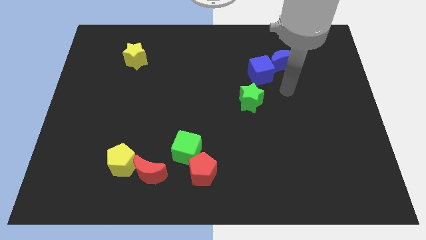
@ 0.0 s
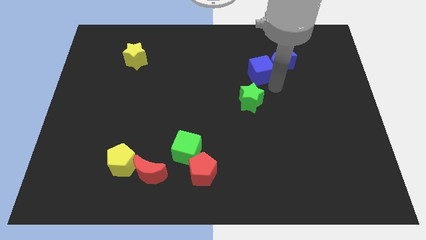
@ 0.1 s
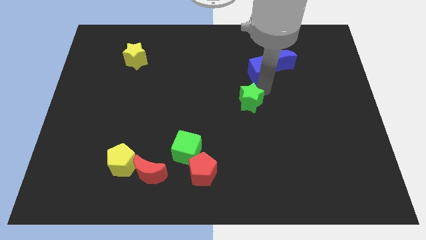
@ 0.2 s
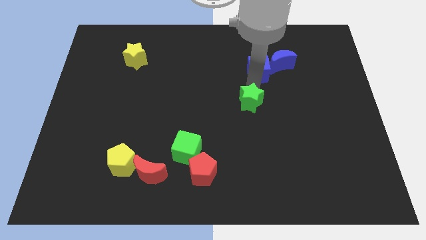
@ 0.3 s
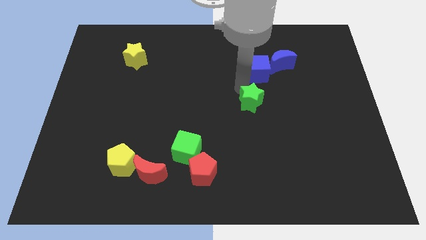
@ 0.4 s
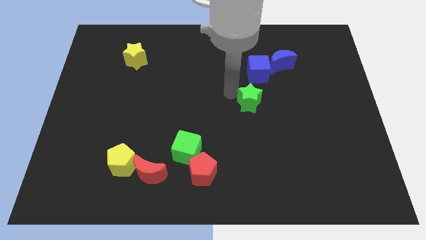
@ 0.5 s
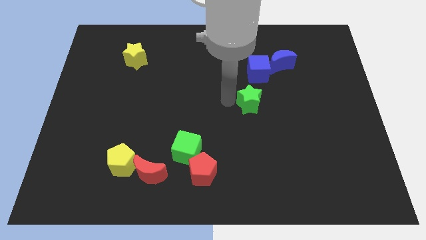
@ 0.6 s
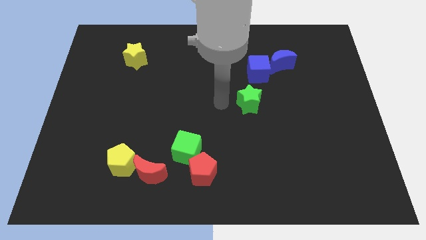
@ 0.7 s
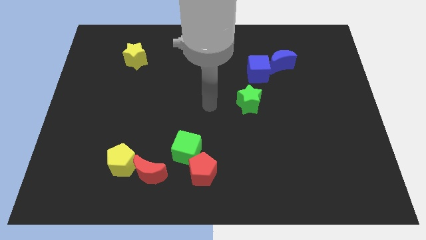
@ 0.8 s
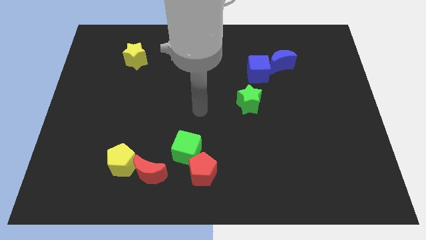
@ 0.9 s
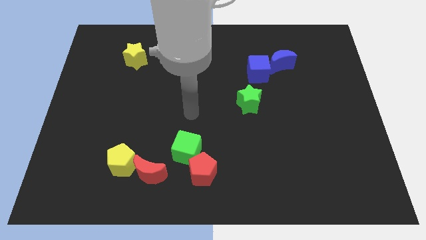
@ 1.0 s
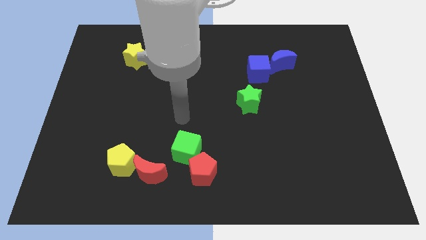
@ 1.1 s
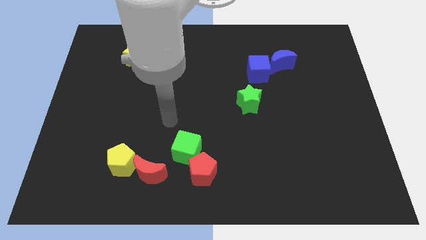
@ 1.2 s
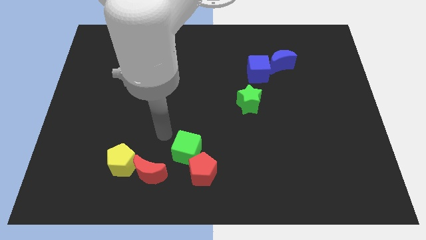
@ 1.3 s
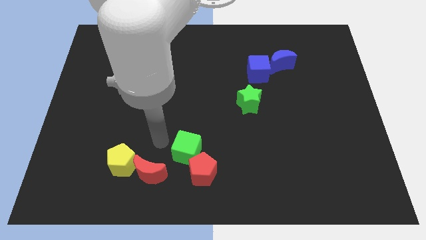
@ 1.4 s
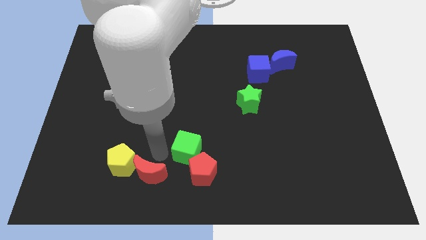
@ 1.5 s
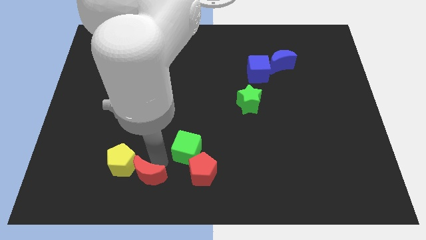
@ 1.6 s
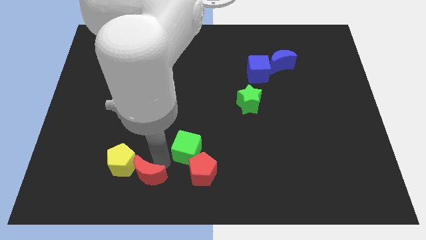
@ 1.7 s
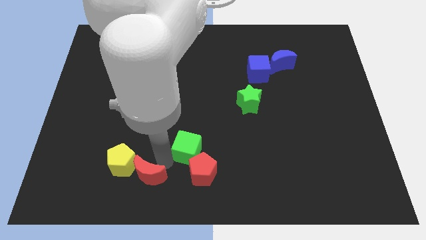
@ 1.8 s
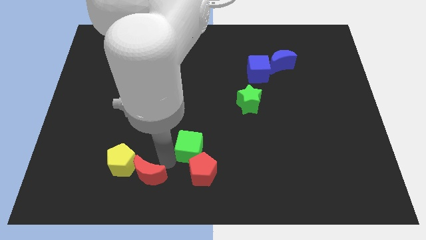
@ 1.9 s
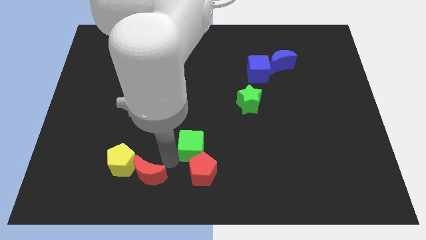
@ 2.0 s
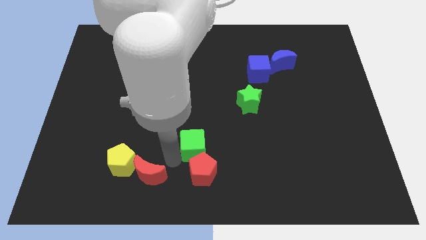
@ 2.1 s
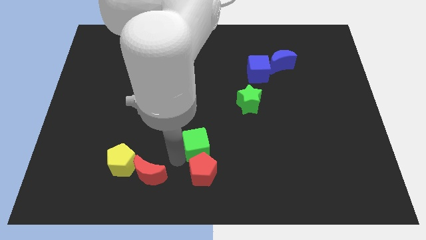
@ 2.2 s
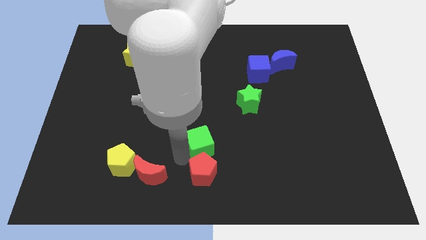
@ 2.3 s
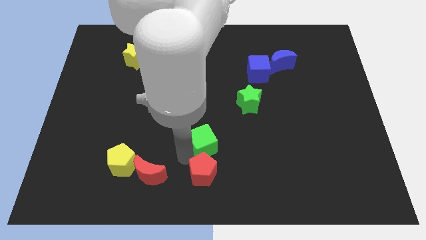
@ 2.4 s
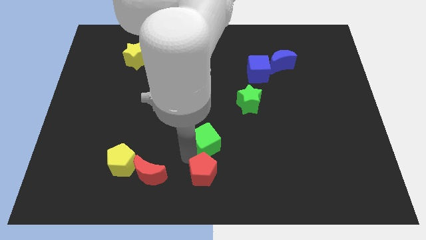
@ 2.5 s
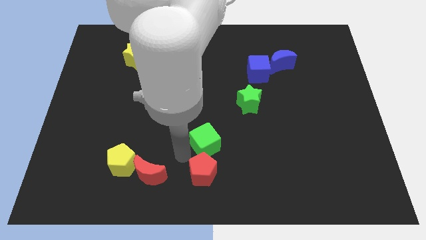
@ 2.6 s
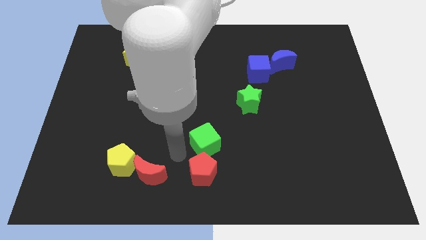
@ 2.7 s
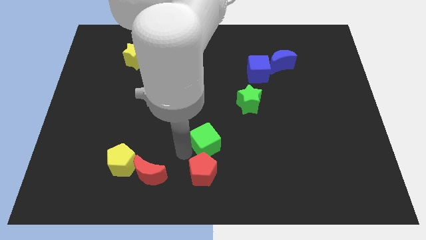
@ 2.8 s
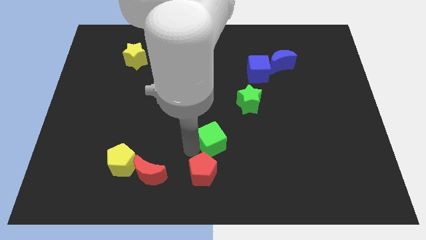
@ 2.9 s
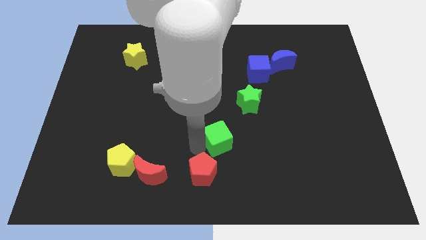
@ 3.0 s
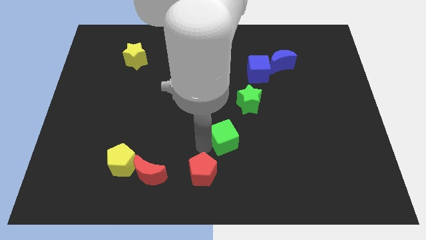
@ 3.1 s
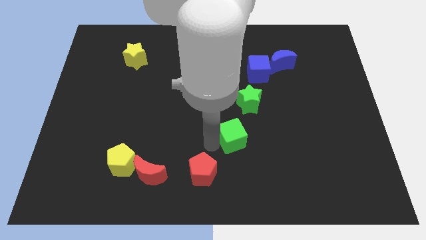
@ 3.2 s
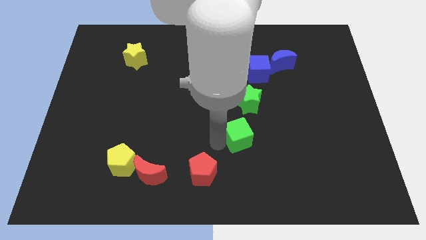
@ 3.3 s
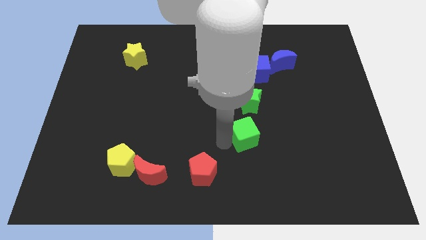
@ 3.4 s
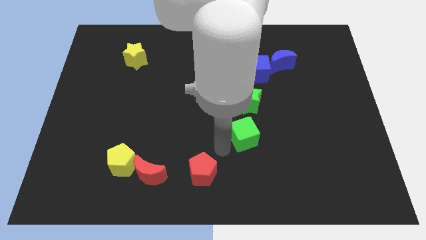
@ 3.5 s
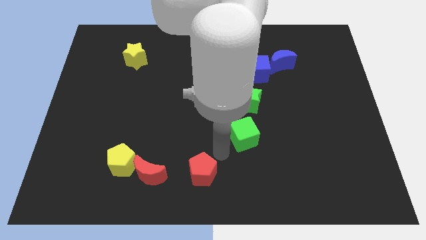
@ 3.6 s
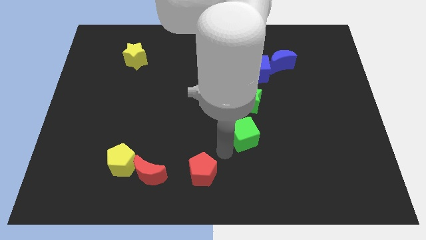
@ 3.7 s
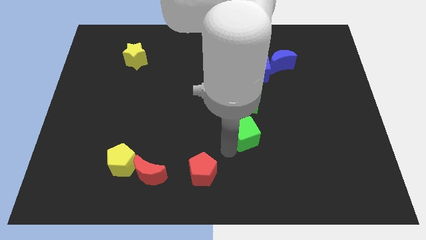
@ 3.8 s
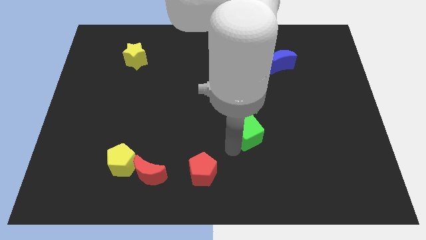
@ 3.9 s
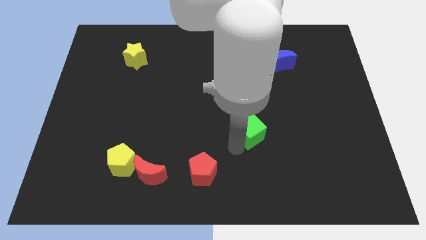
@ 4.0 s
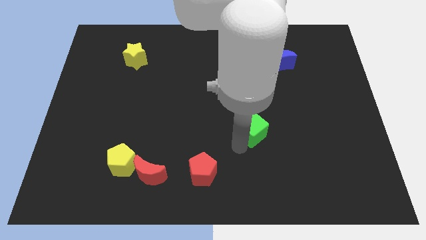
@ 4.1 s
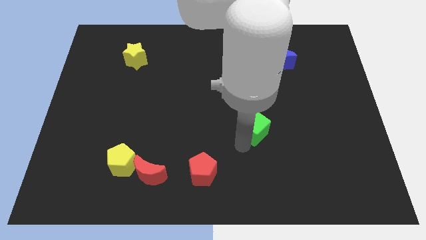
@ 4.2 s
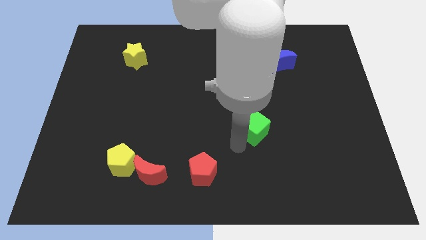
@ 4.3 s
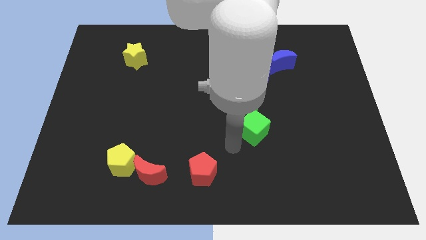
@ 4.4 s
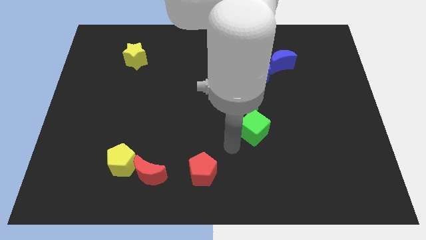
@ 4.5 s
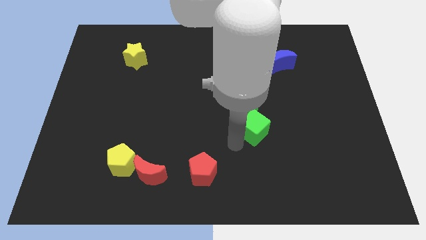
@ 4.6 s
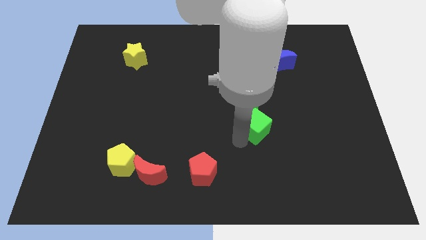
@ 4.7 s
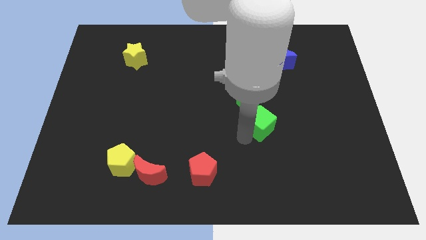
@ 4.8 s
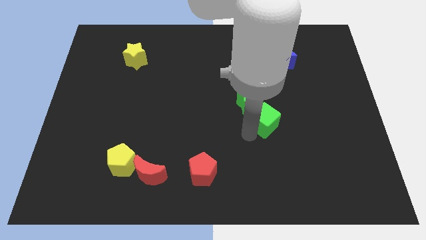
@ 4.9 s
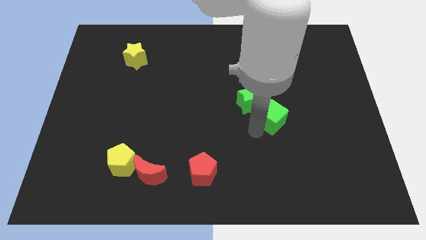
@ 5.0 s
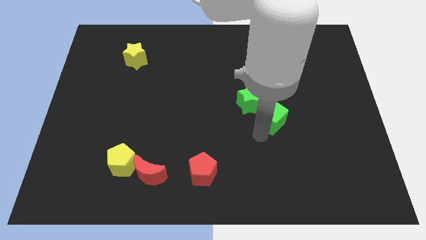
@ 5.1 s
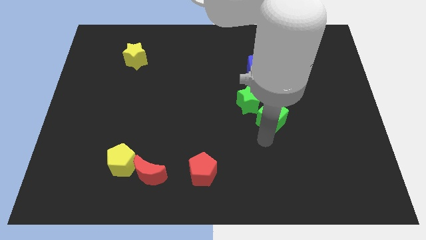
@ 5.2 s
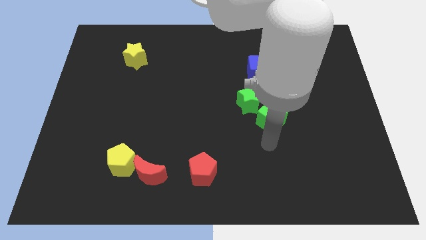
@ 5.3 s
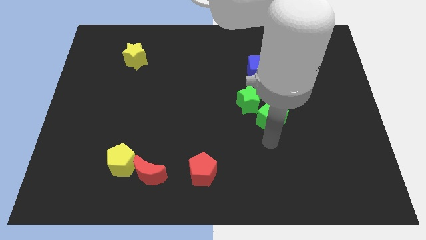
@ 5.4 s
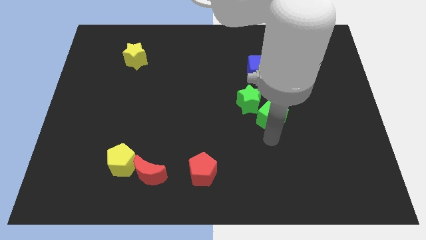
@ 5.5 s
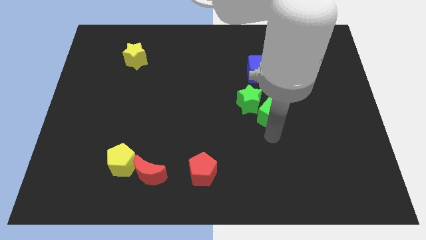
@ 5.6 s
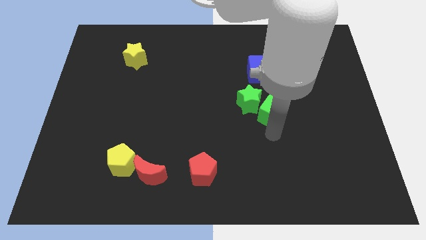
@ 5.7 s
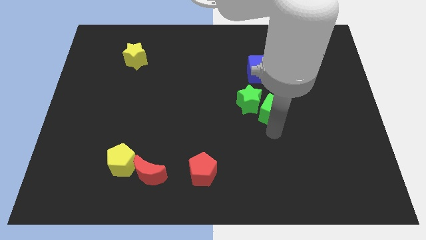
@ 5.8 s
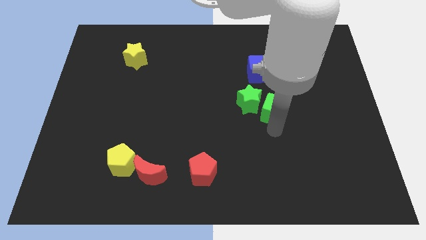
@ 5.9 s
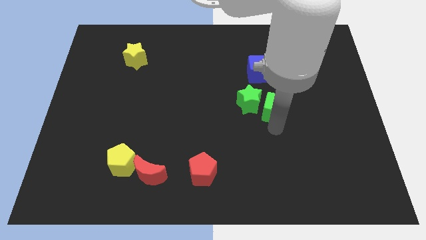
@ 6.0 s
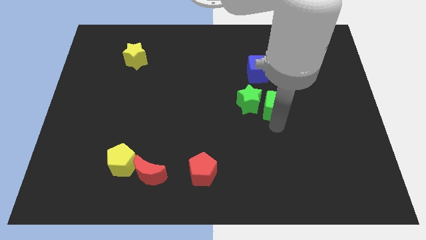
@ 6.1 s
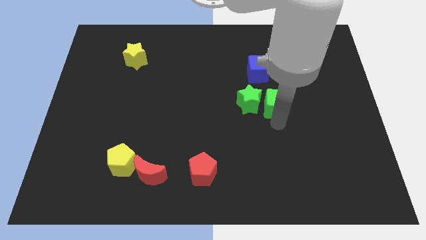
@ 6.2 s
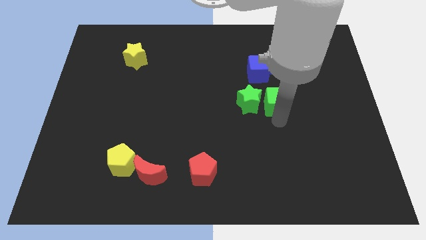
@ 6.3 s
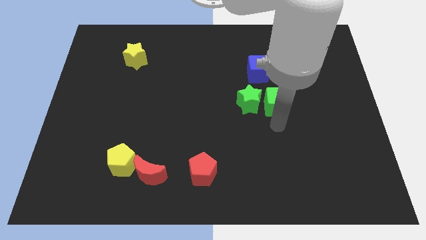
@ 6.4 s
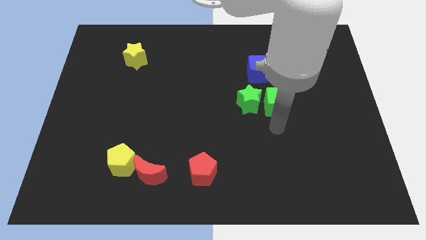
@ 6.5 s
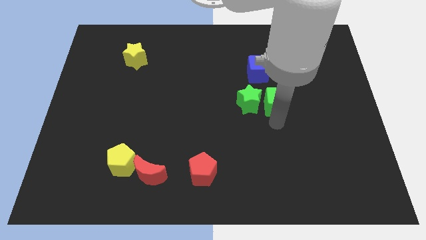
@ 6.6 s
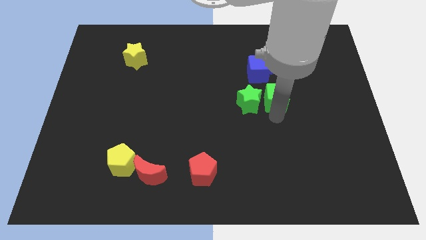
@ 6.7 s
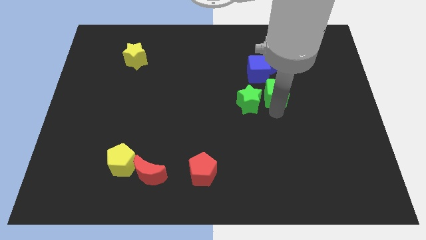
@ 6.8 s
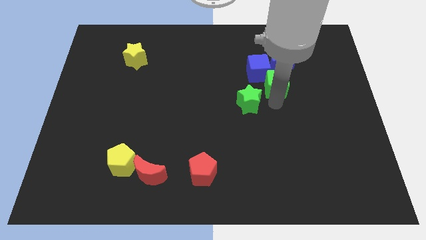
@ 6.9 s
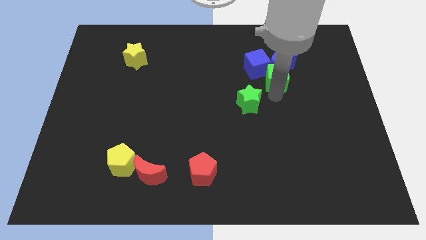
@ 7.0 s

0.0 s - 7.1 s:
push the green cube close to the blue moon
